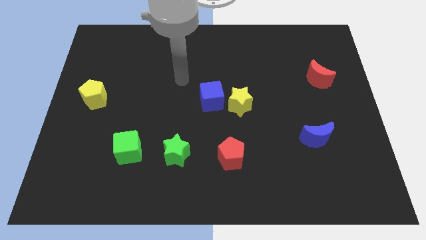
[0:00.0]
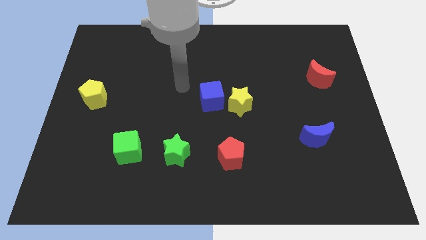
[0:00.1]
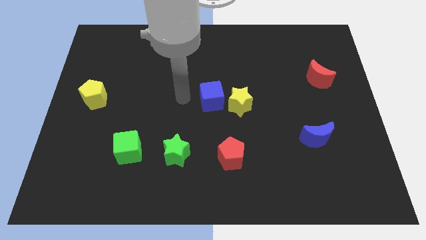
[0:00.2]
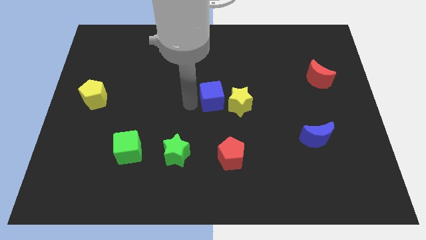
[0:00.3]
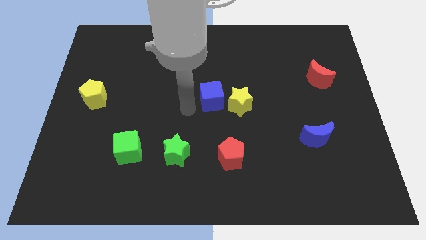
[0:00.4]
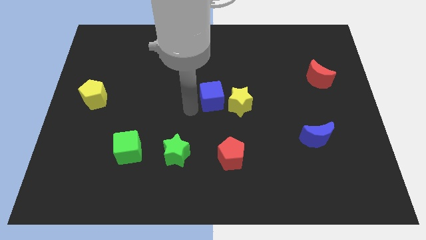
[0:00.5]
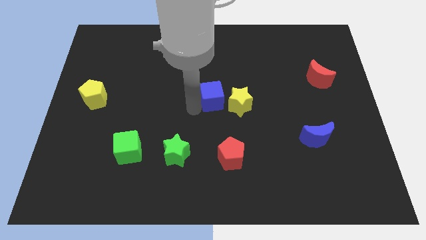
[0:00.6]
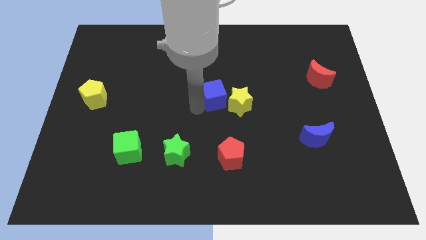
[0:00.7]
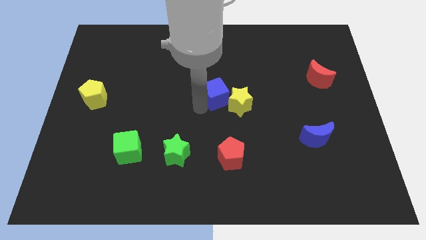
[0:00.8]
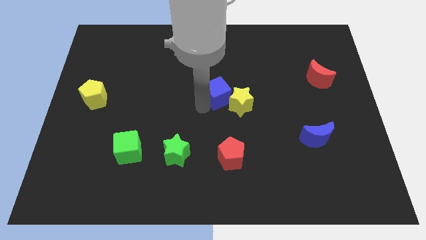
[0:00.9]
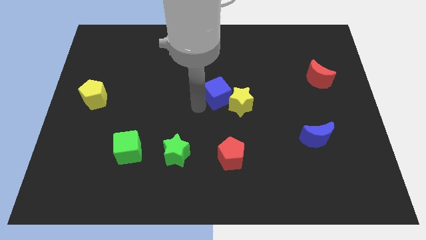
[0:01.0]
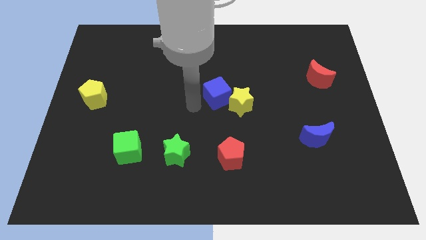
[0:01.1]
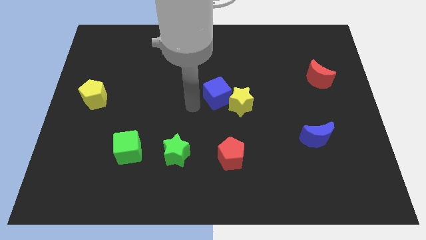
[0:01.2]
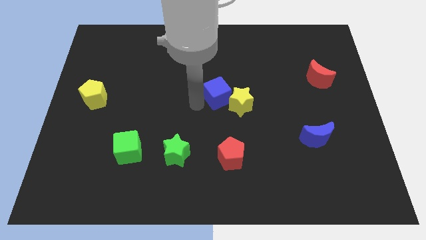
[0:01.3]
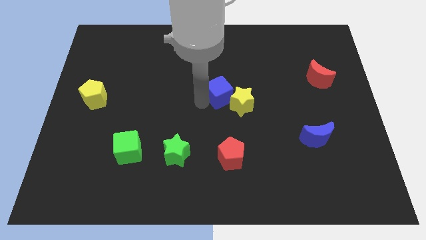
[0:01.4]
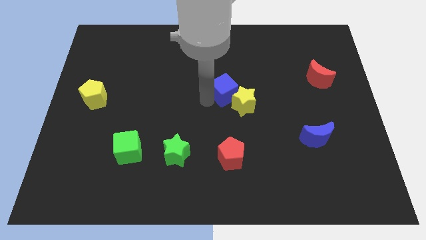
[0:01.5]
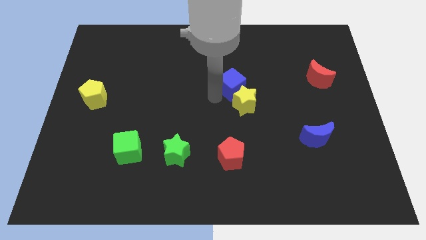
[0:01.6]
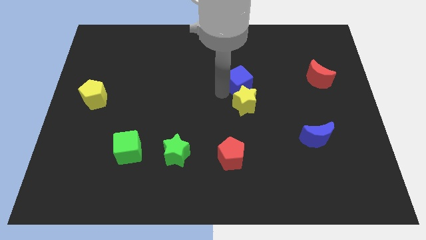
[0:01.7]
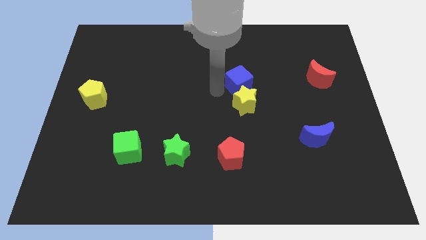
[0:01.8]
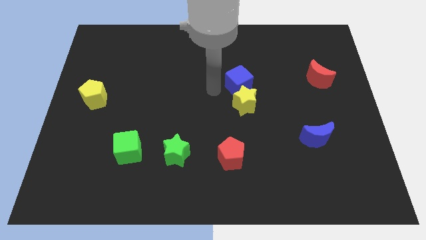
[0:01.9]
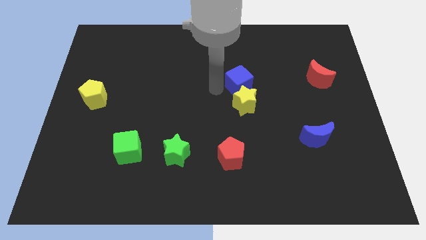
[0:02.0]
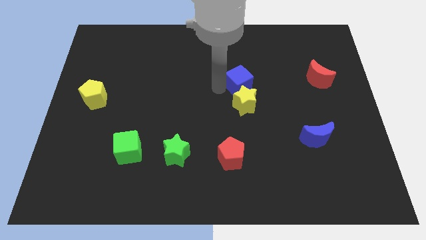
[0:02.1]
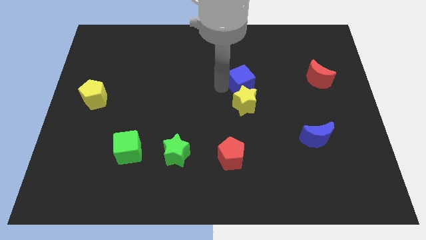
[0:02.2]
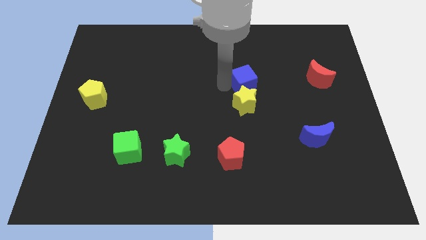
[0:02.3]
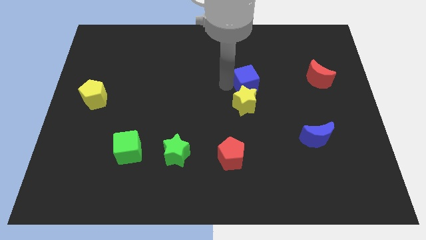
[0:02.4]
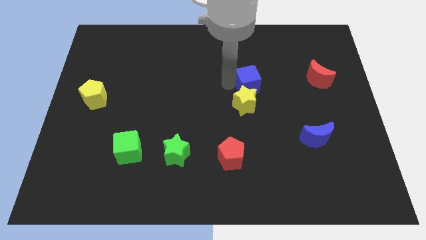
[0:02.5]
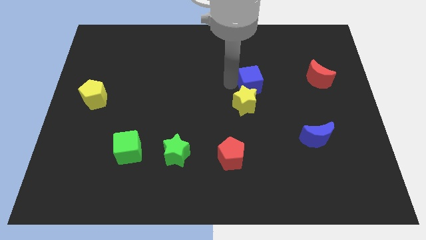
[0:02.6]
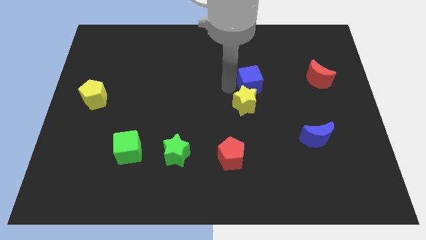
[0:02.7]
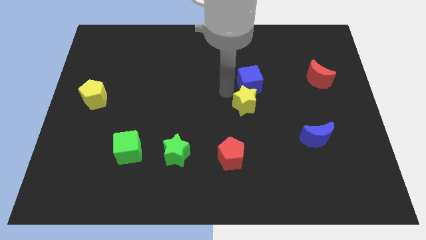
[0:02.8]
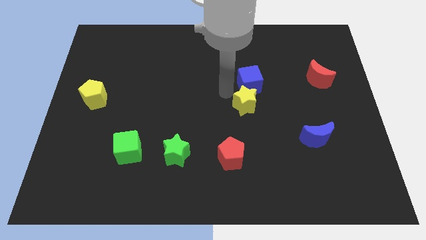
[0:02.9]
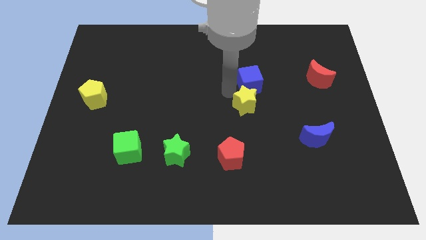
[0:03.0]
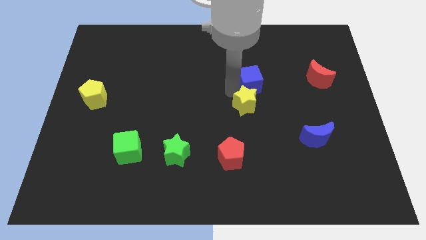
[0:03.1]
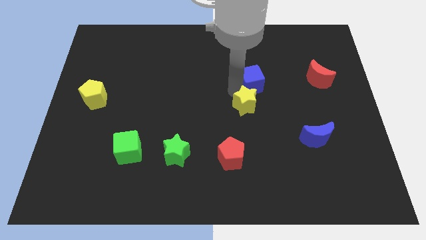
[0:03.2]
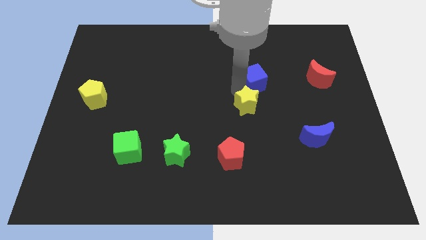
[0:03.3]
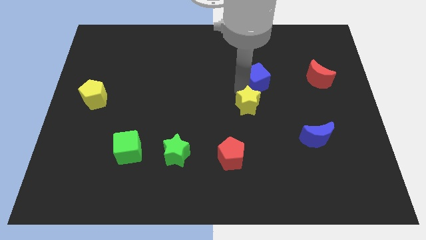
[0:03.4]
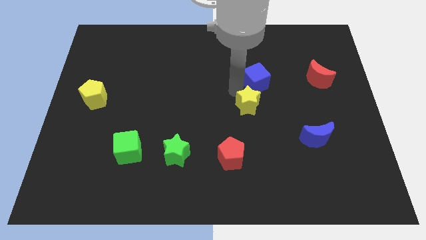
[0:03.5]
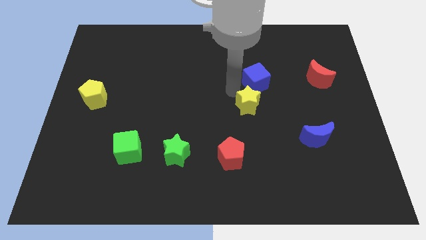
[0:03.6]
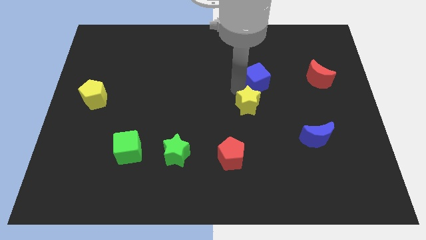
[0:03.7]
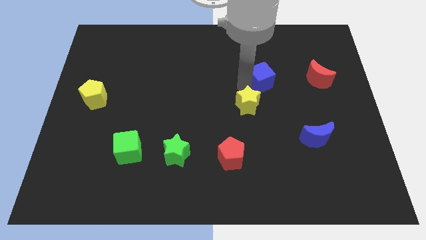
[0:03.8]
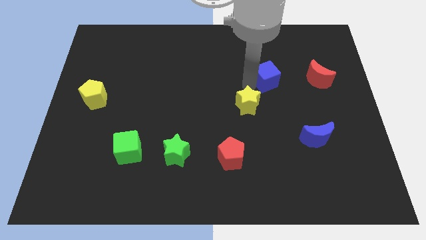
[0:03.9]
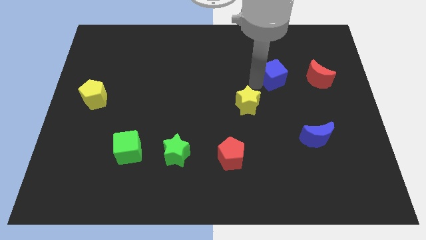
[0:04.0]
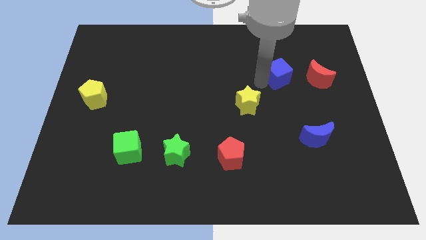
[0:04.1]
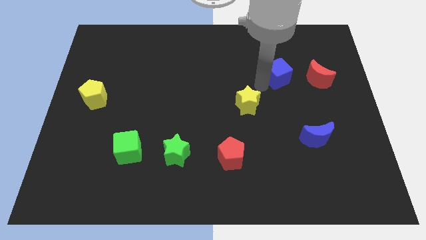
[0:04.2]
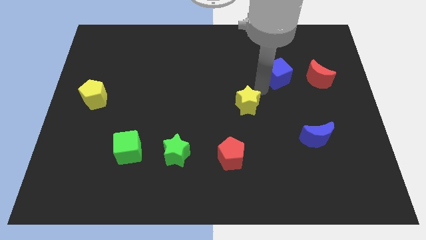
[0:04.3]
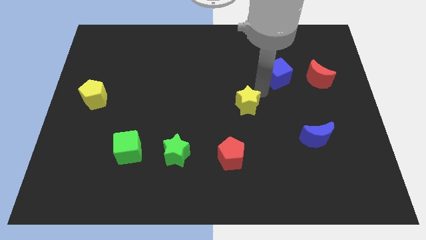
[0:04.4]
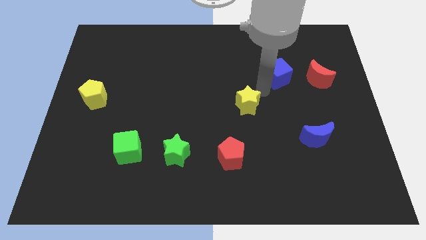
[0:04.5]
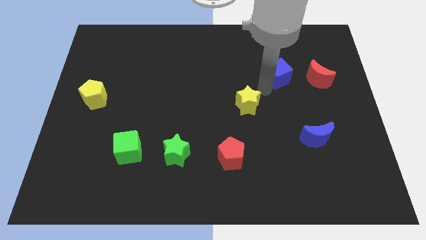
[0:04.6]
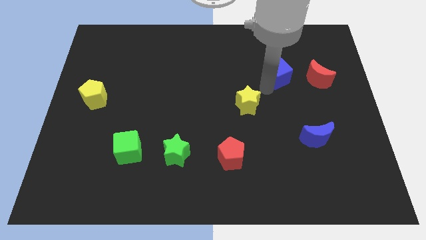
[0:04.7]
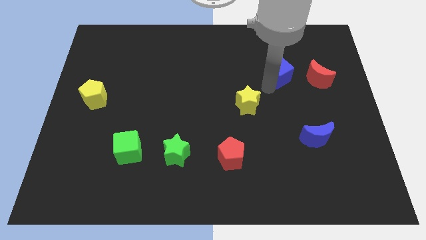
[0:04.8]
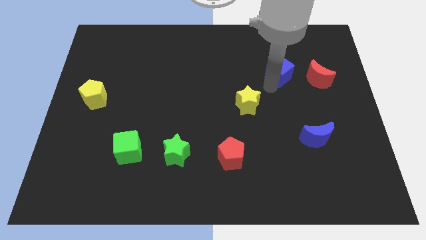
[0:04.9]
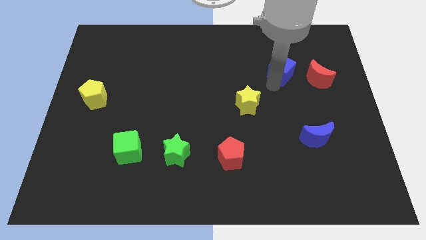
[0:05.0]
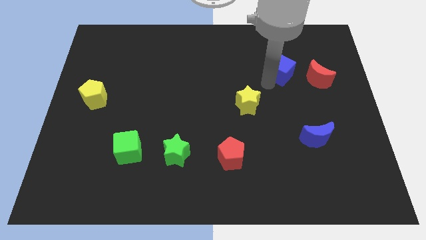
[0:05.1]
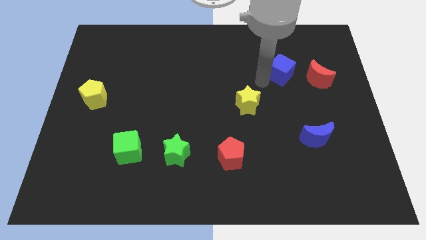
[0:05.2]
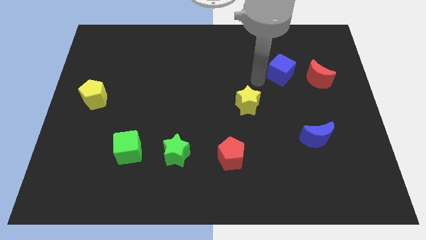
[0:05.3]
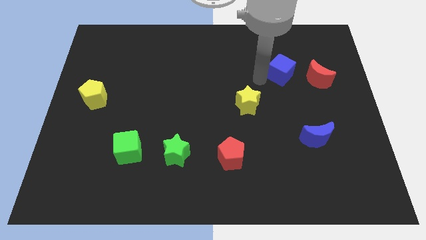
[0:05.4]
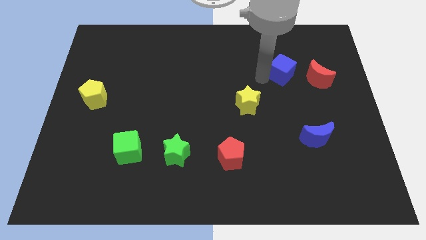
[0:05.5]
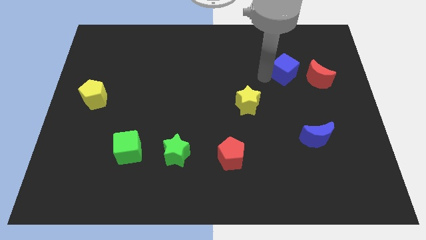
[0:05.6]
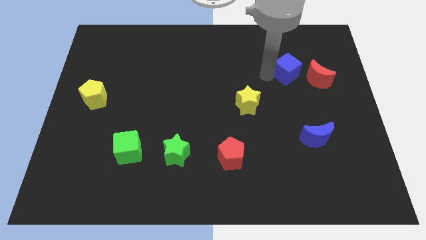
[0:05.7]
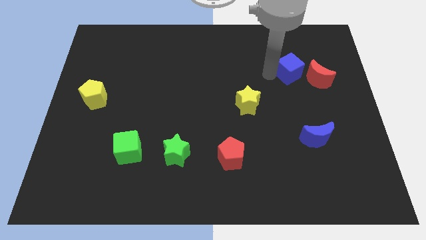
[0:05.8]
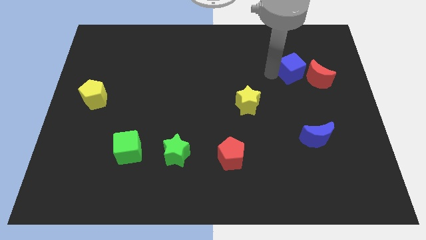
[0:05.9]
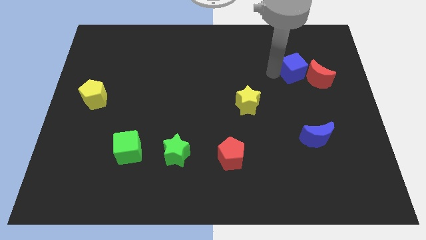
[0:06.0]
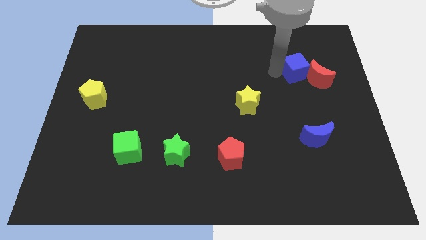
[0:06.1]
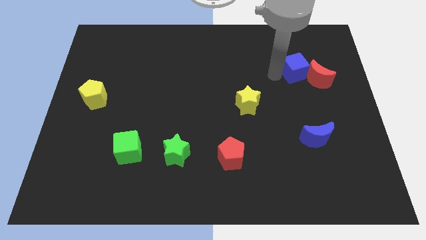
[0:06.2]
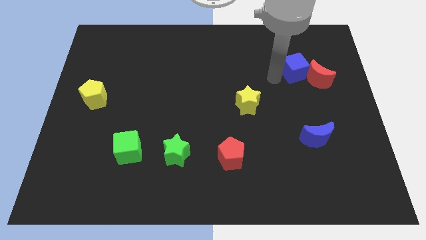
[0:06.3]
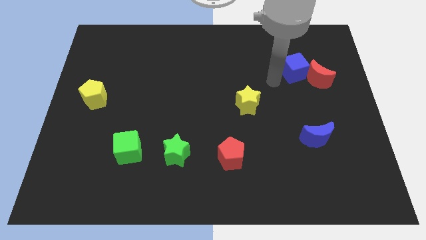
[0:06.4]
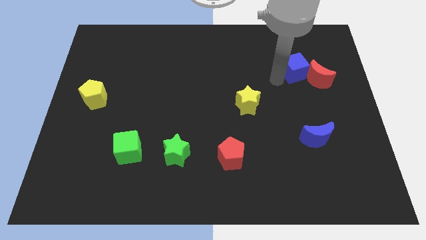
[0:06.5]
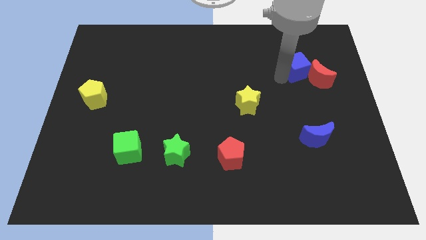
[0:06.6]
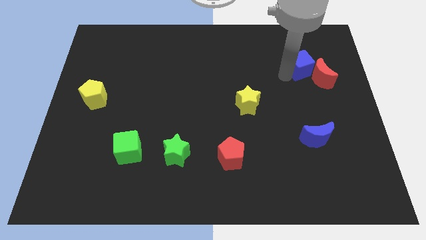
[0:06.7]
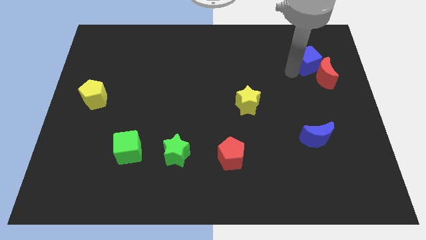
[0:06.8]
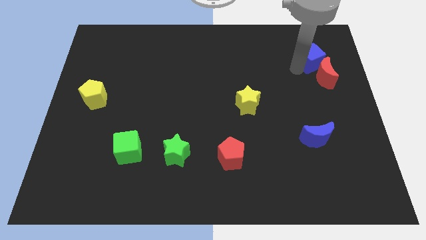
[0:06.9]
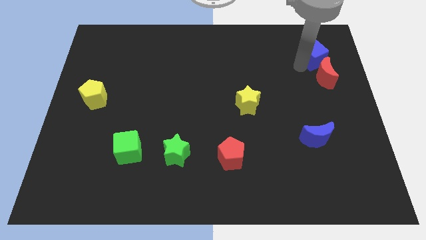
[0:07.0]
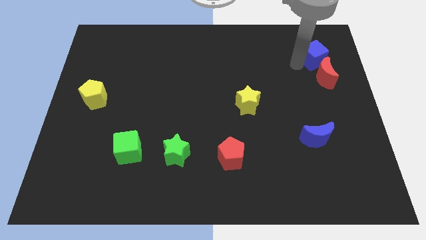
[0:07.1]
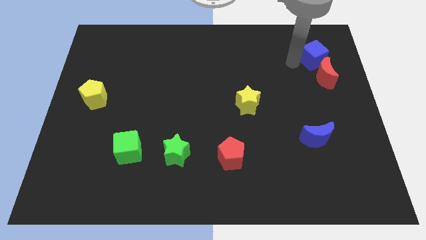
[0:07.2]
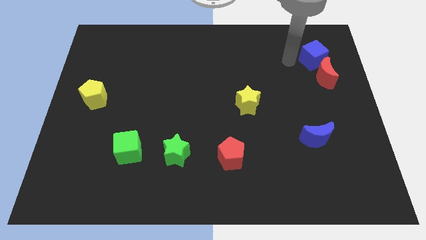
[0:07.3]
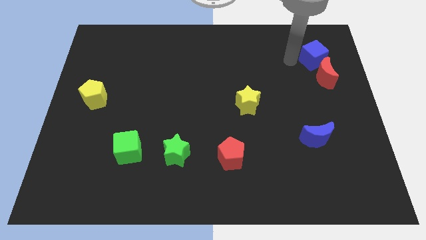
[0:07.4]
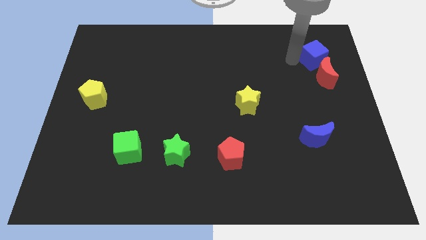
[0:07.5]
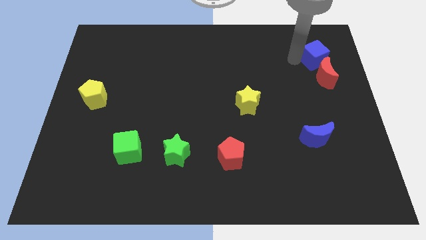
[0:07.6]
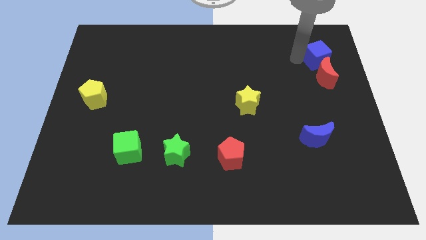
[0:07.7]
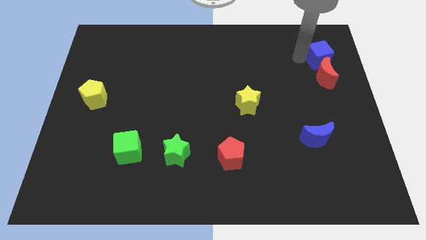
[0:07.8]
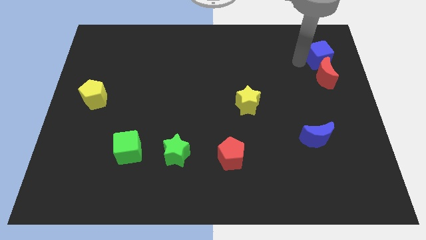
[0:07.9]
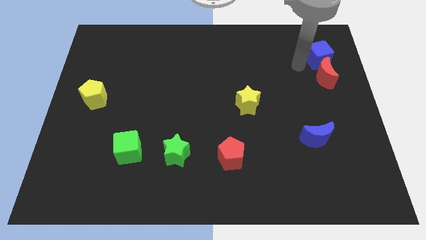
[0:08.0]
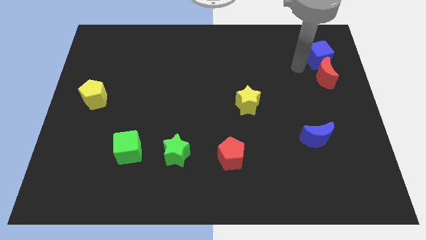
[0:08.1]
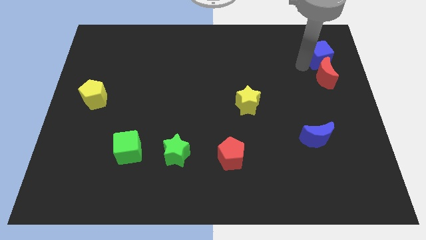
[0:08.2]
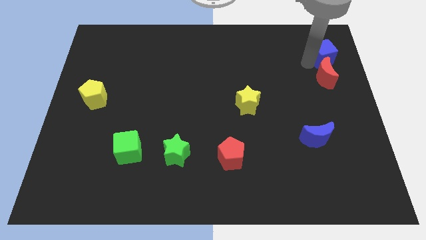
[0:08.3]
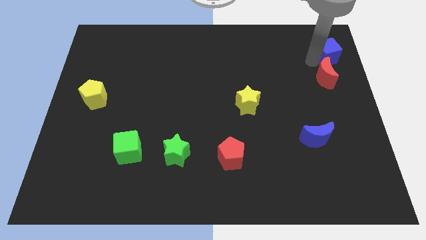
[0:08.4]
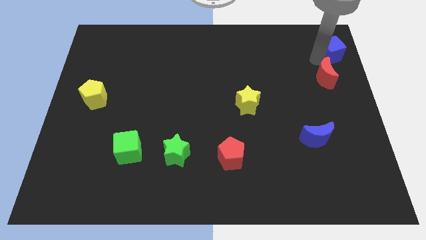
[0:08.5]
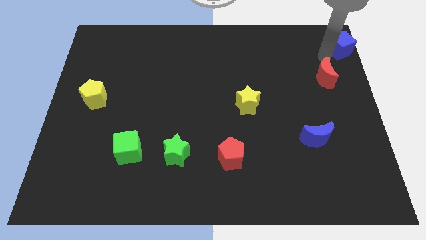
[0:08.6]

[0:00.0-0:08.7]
push the blue cube to the upper right corner
